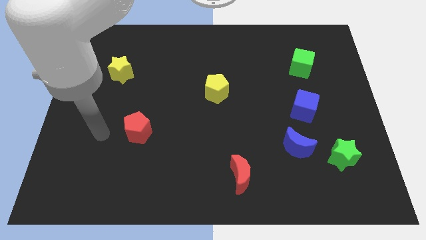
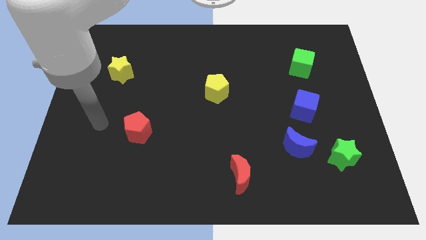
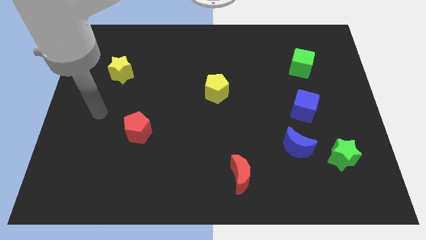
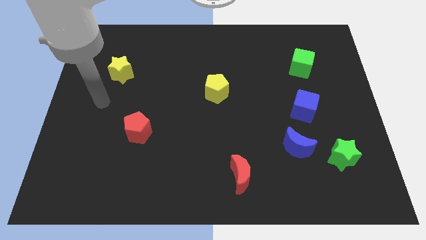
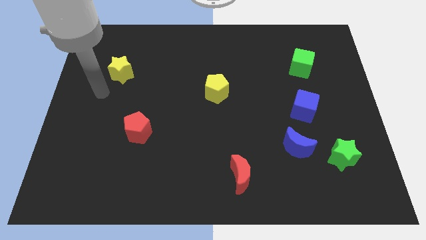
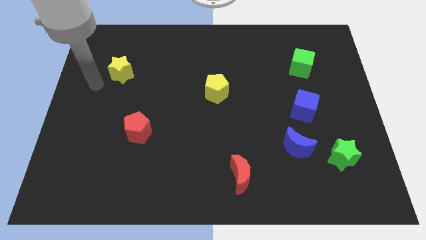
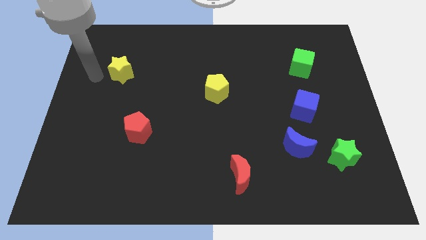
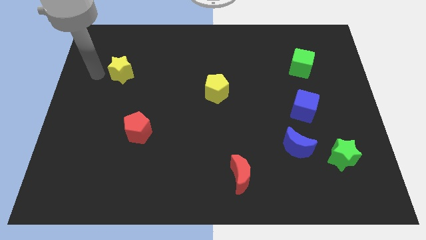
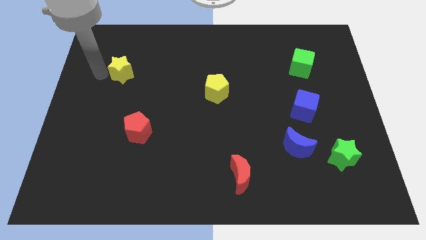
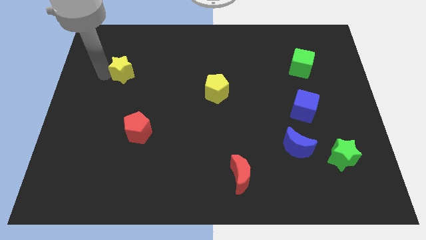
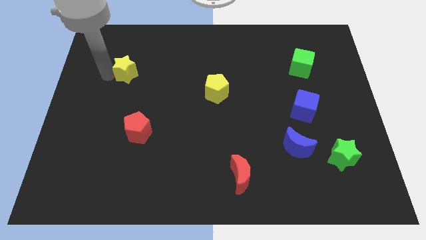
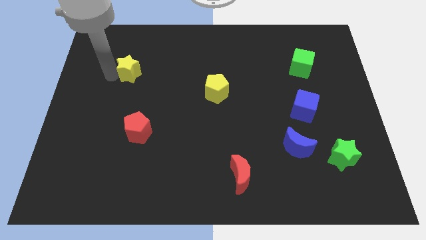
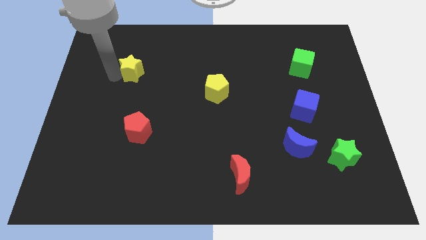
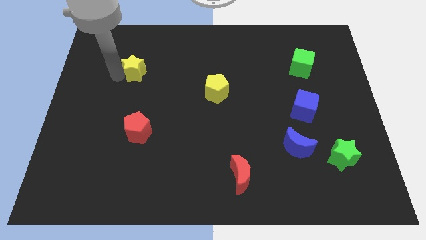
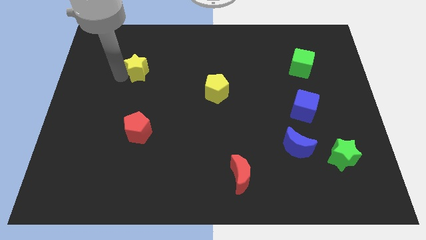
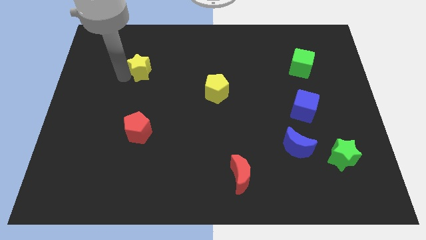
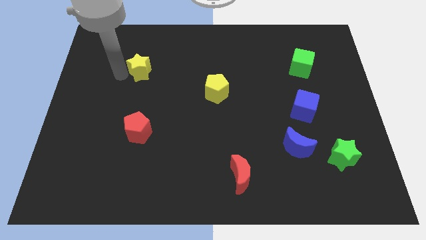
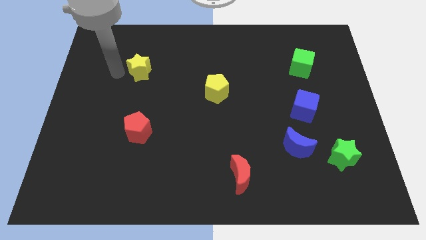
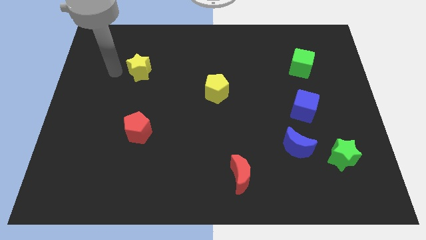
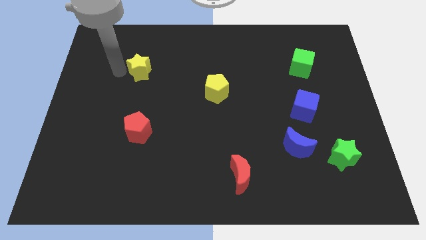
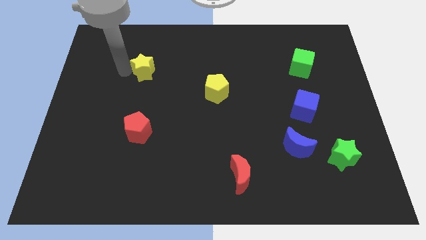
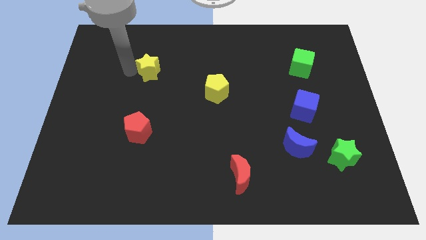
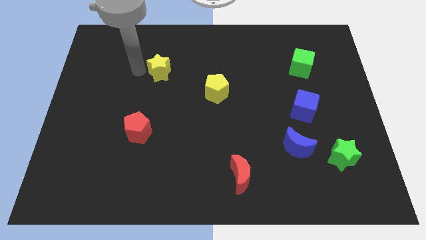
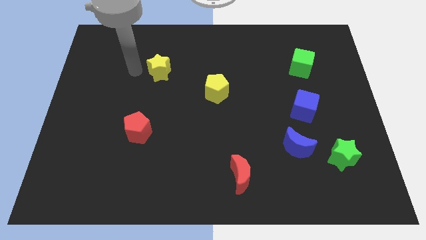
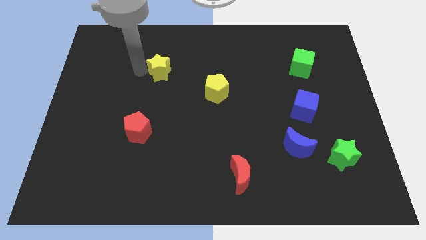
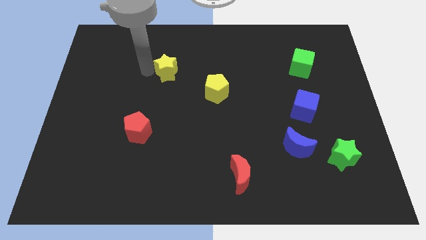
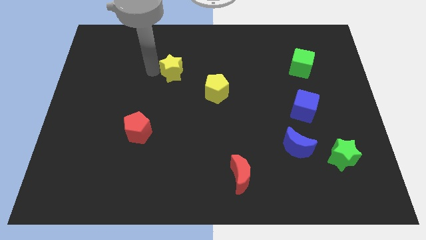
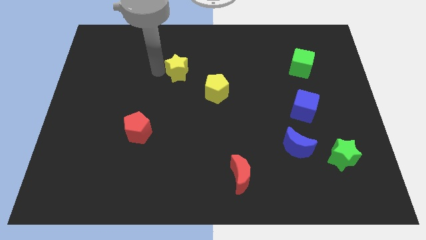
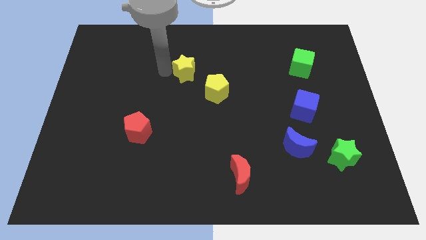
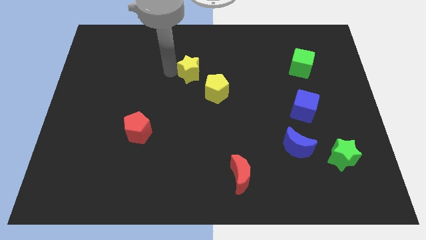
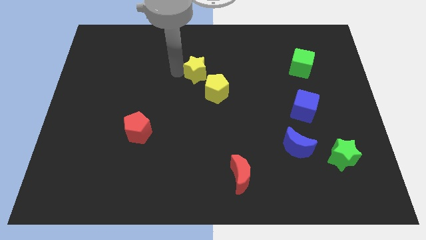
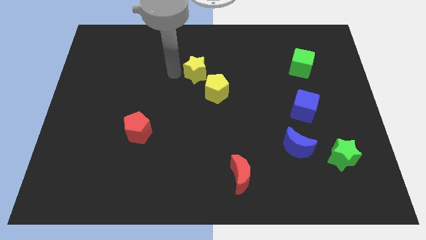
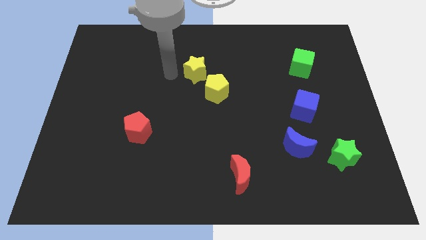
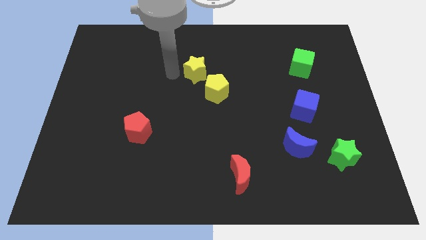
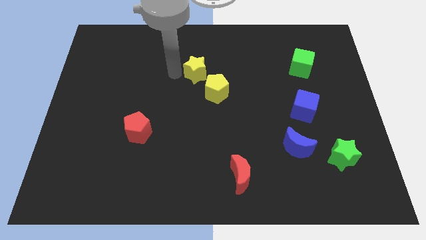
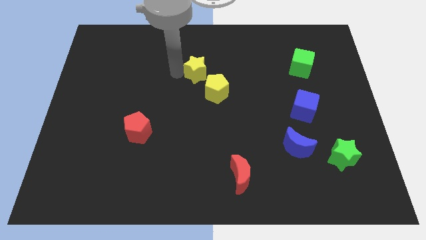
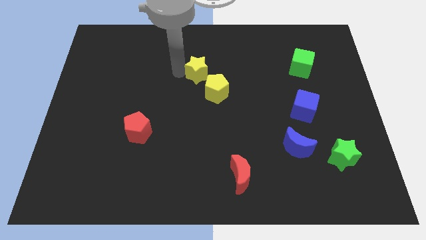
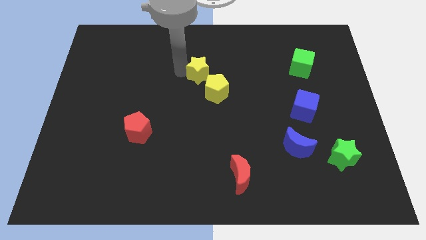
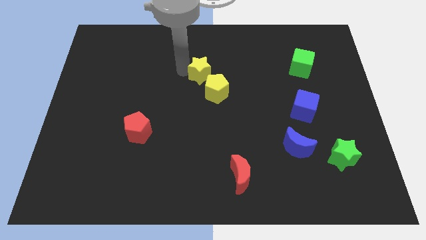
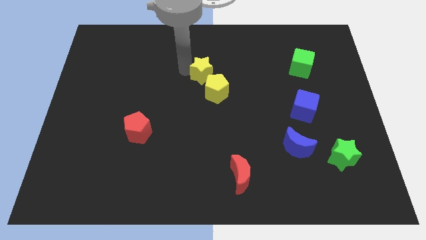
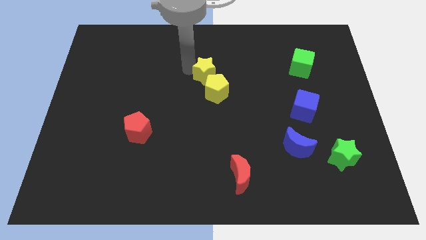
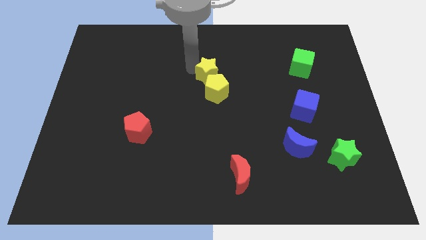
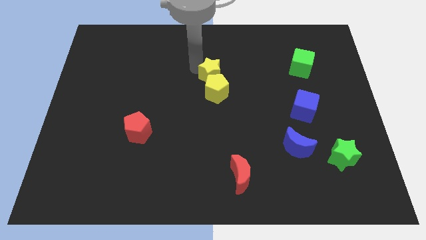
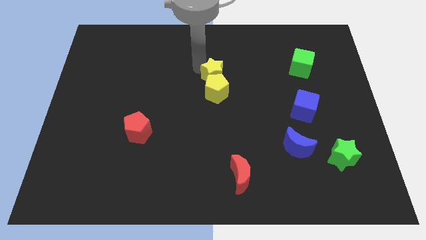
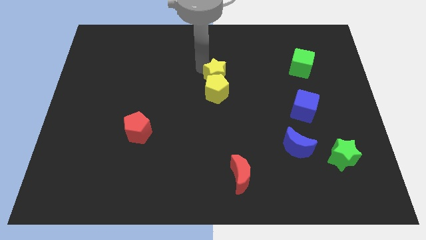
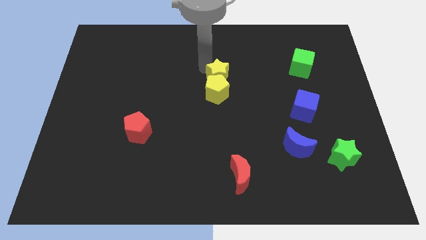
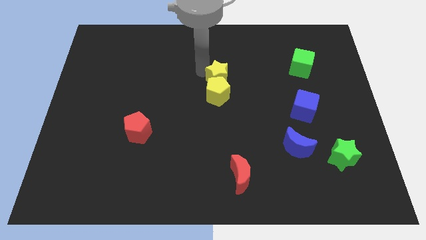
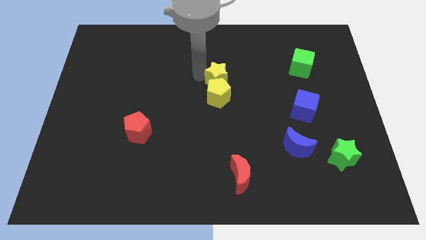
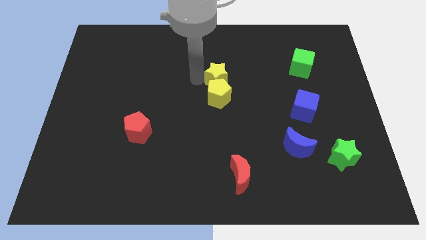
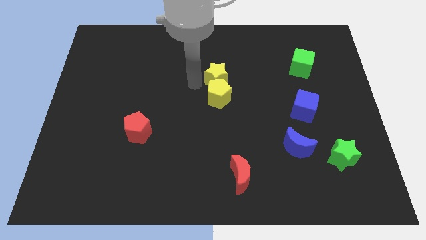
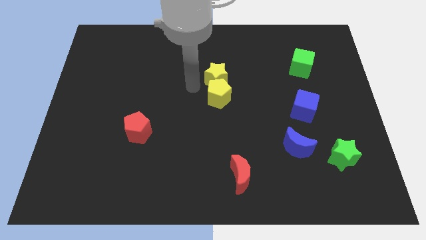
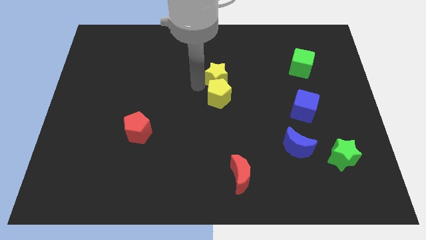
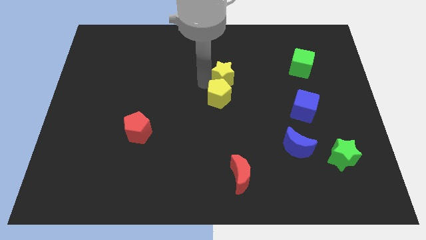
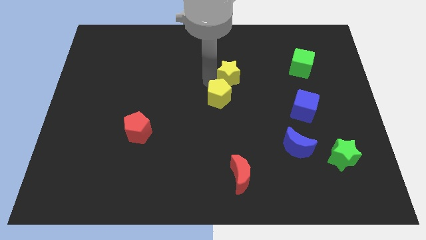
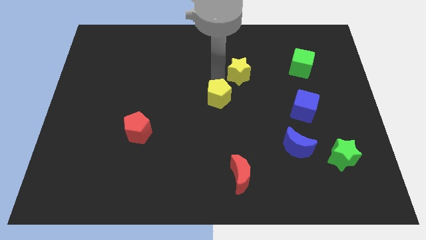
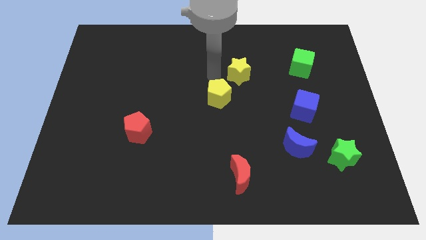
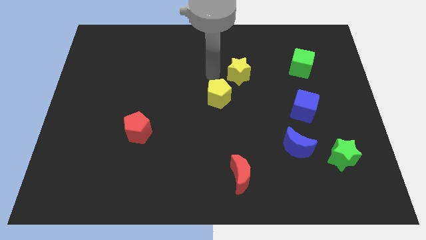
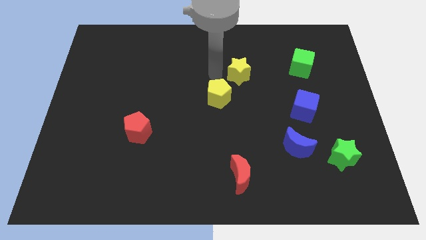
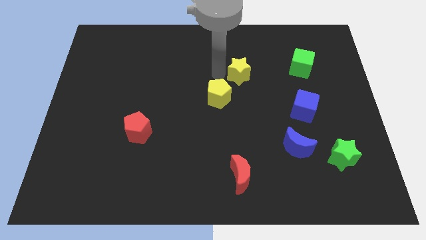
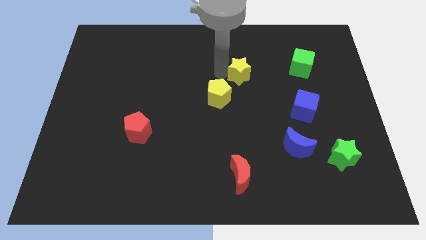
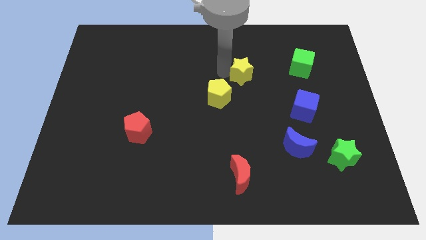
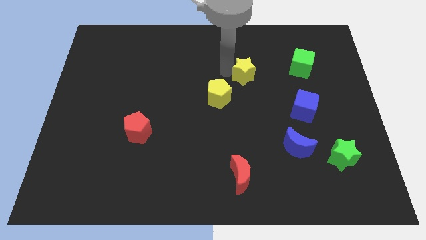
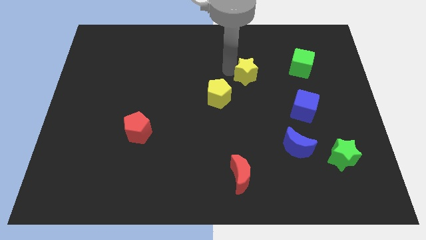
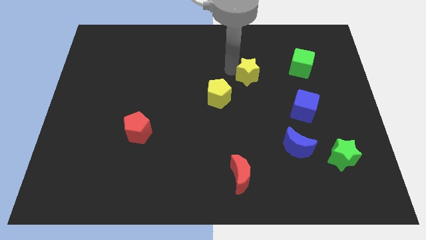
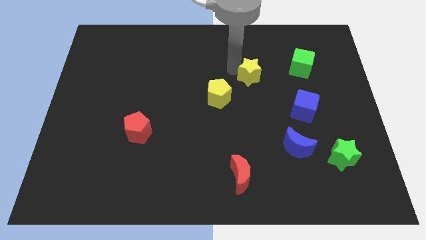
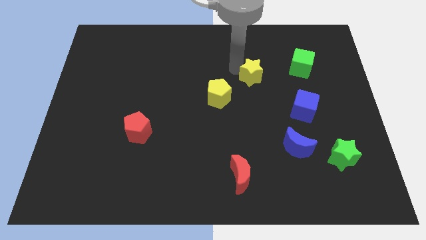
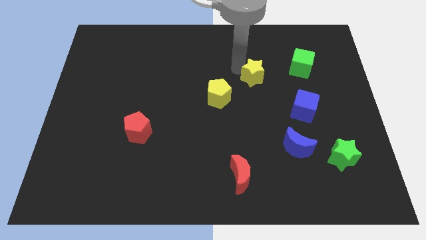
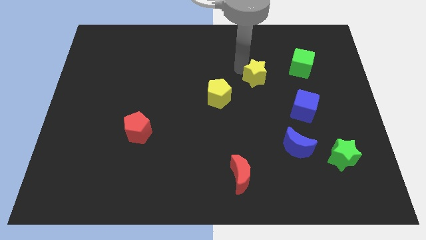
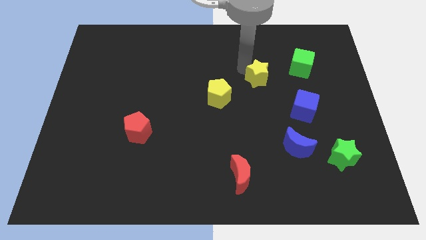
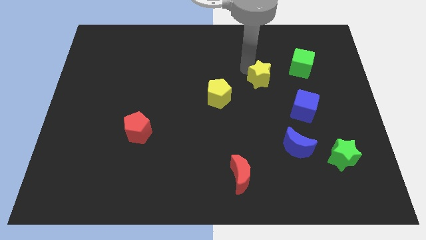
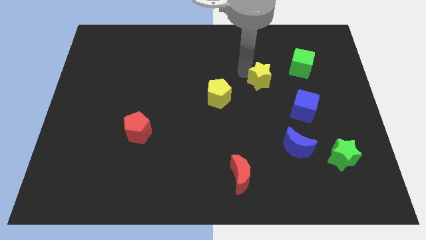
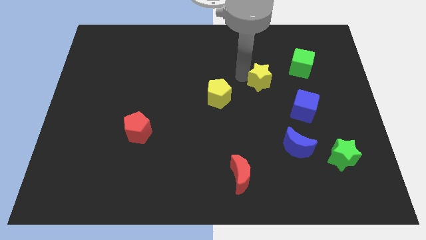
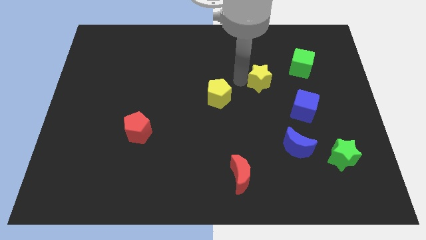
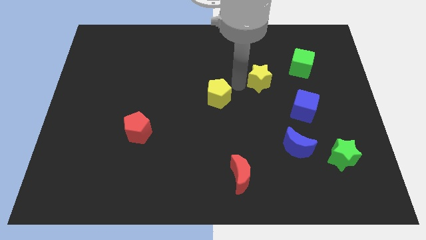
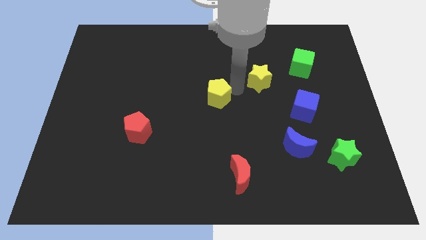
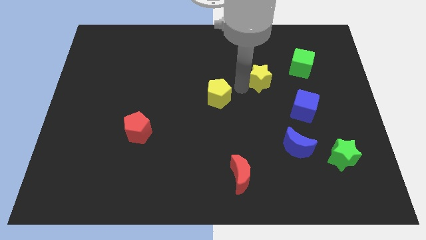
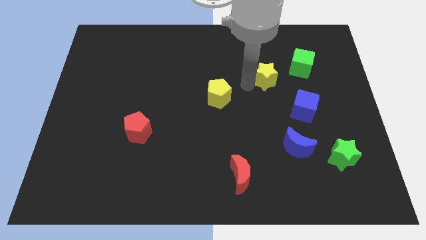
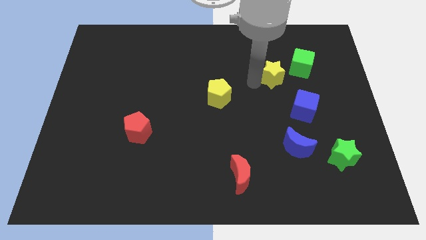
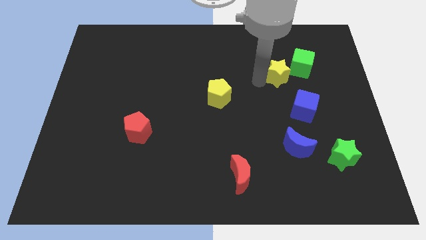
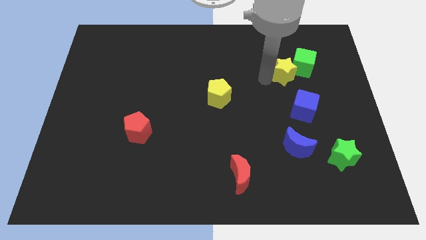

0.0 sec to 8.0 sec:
push the yellow star close to the green cube
